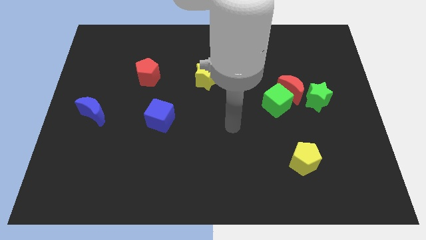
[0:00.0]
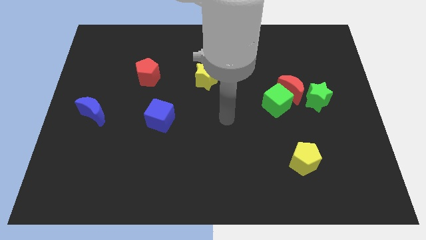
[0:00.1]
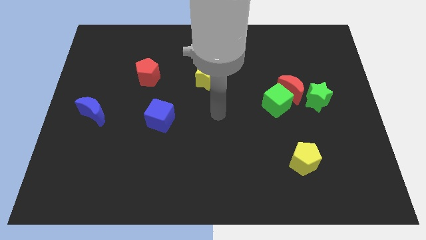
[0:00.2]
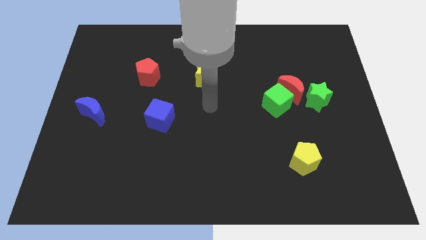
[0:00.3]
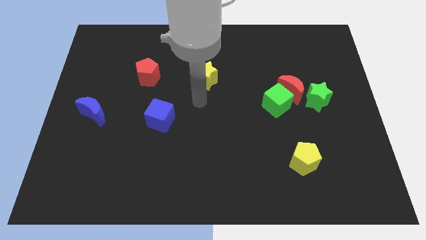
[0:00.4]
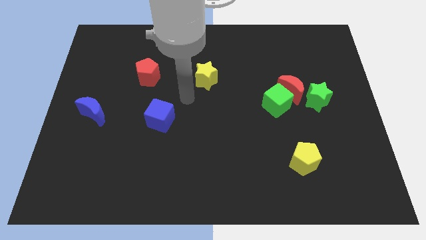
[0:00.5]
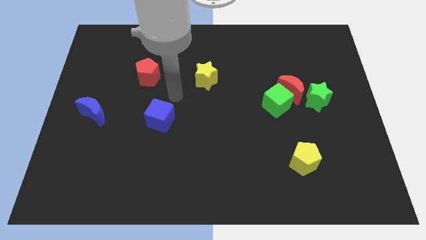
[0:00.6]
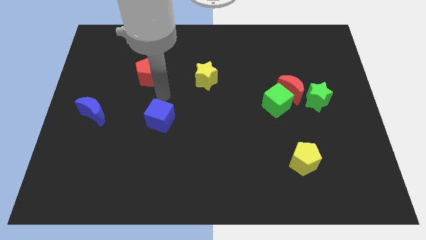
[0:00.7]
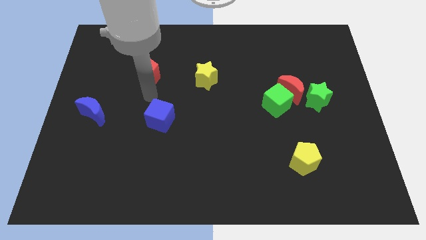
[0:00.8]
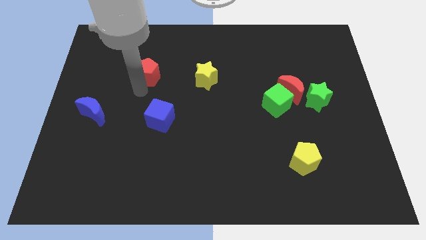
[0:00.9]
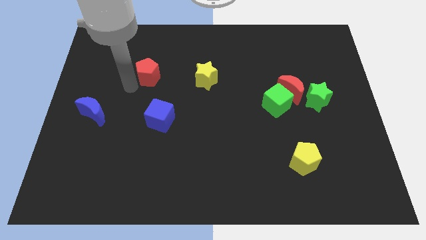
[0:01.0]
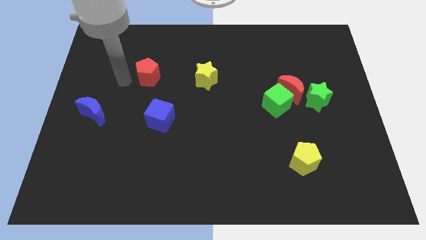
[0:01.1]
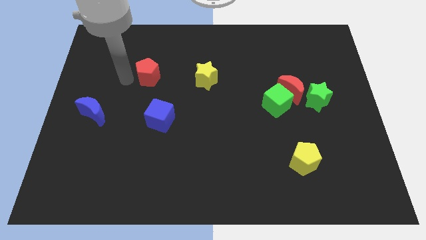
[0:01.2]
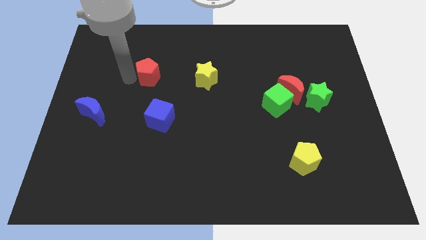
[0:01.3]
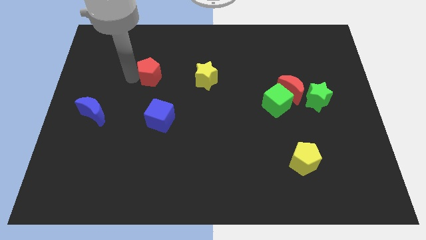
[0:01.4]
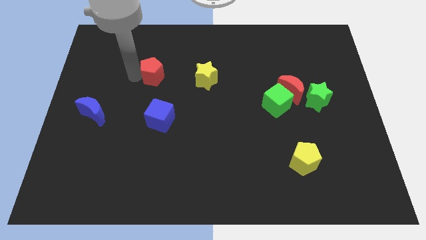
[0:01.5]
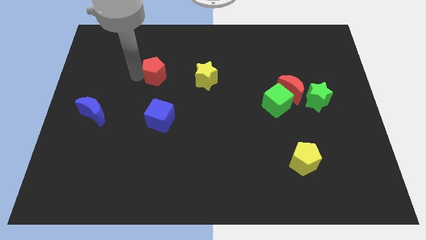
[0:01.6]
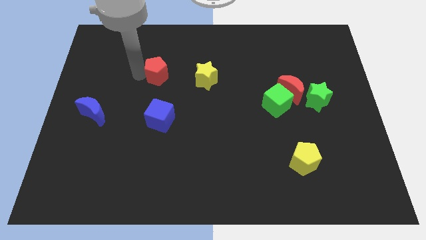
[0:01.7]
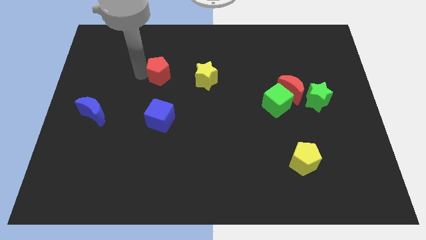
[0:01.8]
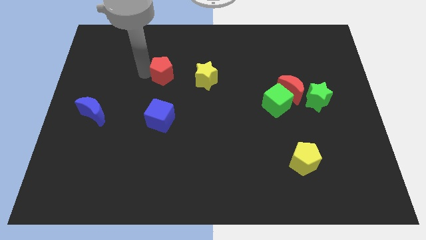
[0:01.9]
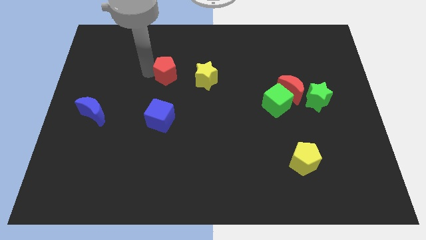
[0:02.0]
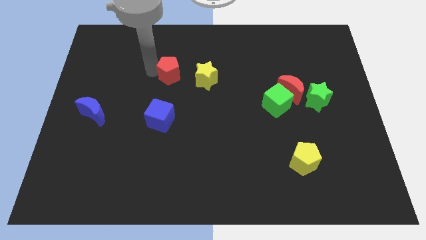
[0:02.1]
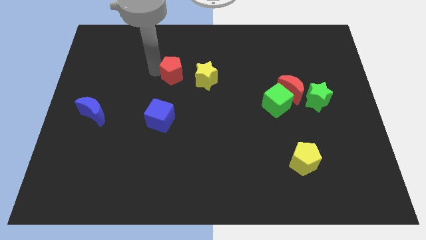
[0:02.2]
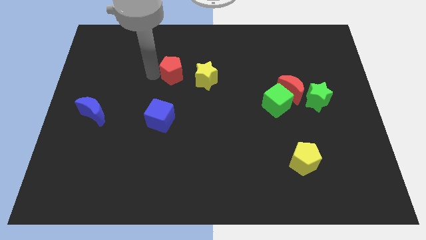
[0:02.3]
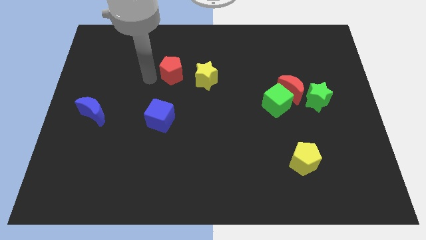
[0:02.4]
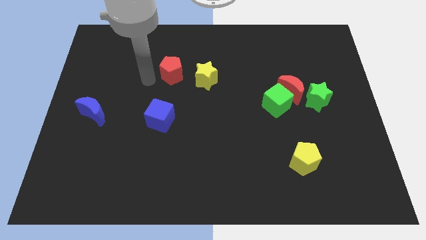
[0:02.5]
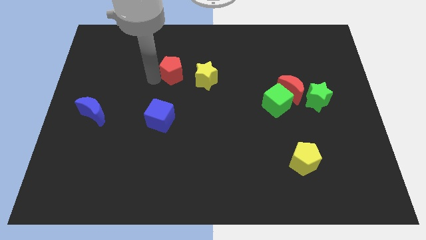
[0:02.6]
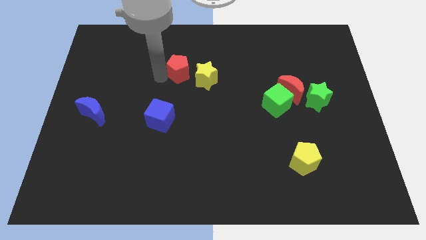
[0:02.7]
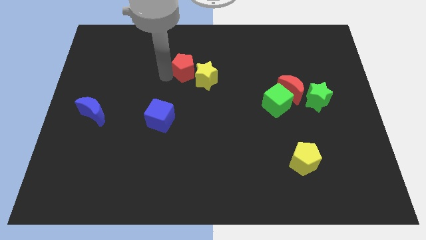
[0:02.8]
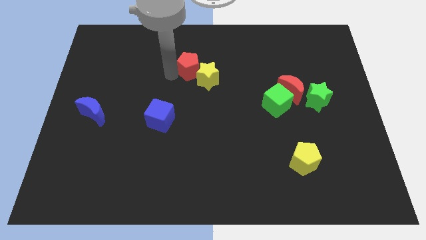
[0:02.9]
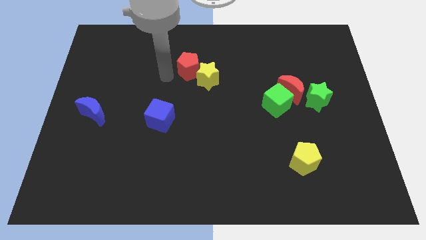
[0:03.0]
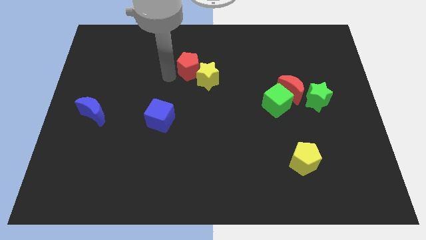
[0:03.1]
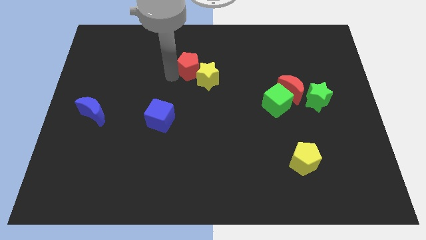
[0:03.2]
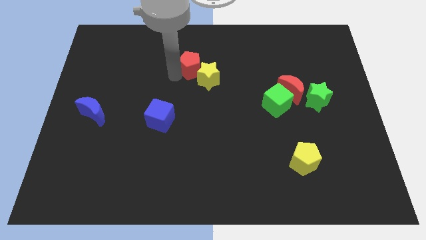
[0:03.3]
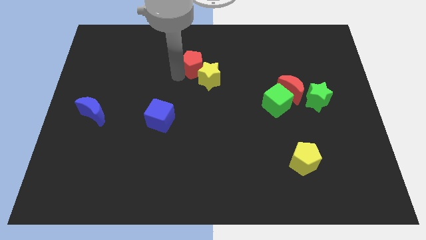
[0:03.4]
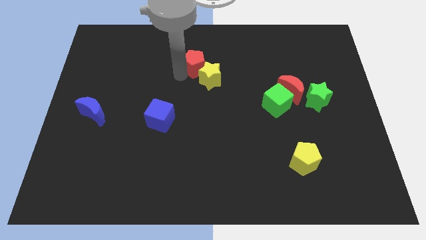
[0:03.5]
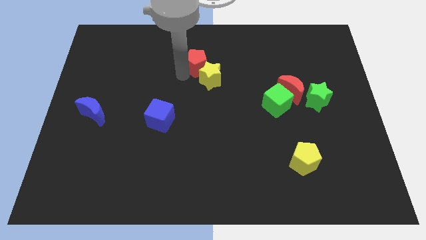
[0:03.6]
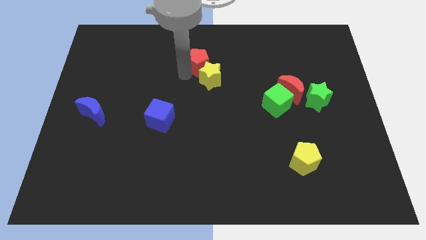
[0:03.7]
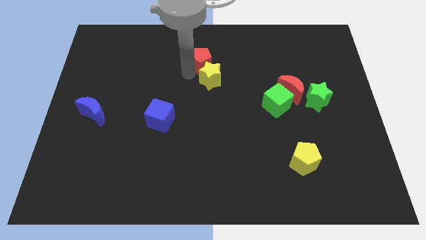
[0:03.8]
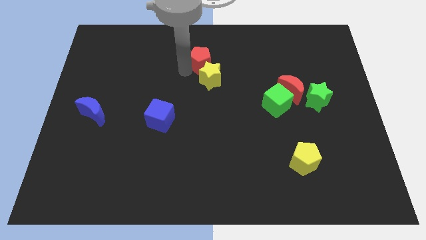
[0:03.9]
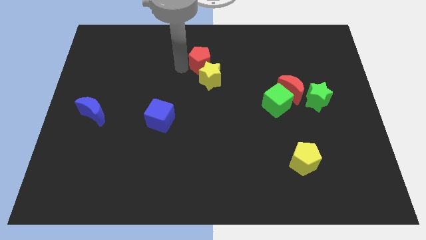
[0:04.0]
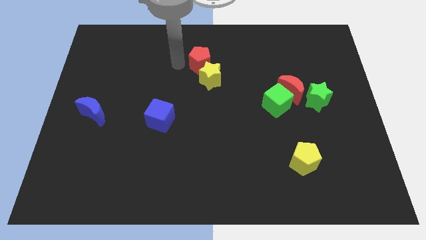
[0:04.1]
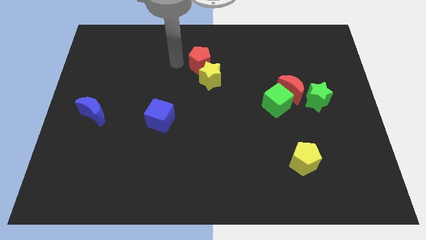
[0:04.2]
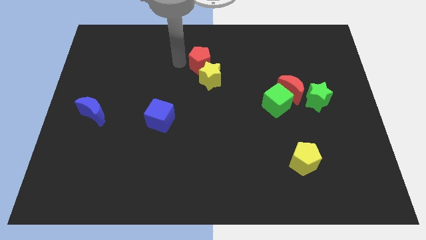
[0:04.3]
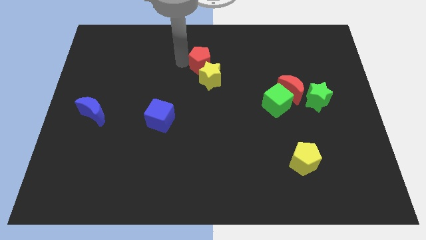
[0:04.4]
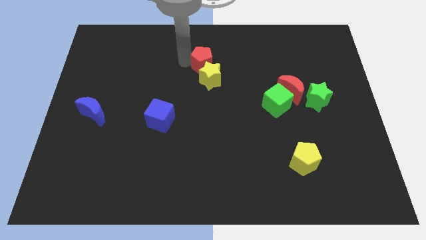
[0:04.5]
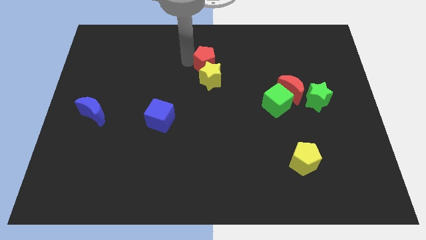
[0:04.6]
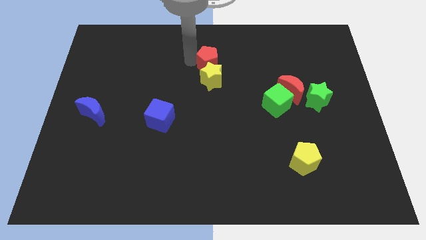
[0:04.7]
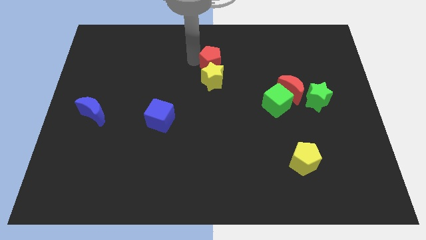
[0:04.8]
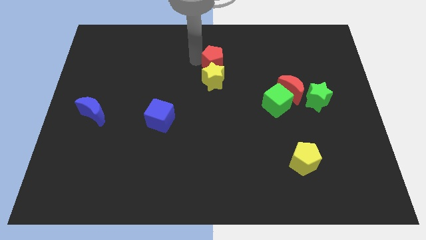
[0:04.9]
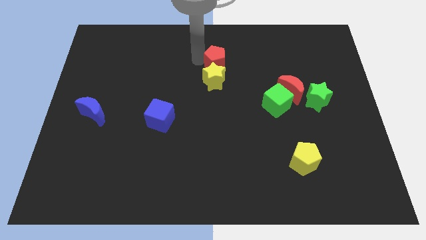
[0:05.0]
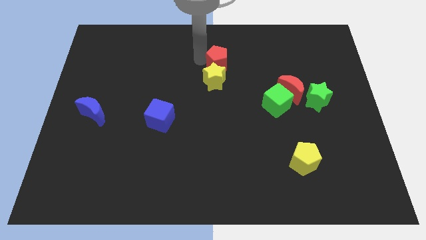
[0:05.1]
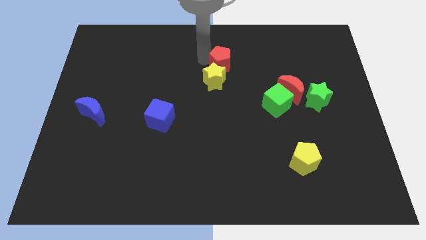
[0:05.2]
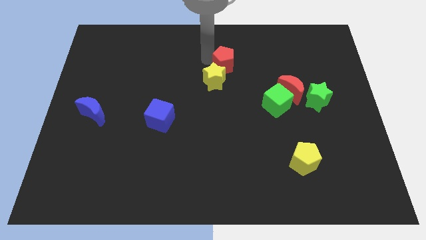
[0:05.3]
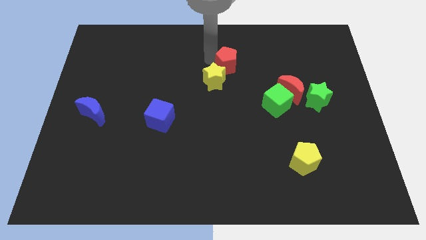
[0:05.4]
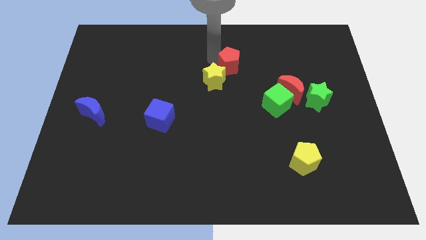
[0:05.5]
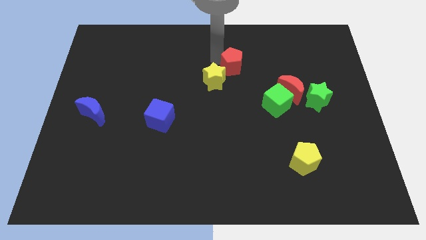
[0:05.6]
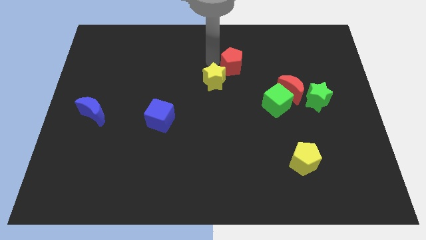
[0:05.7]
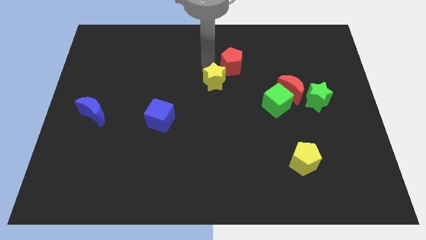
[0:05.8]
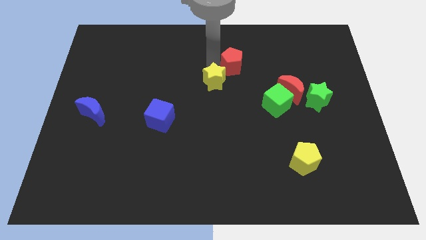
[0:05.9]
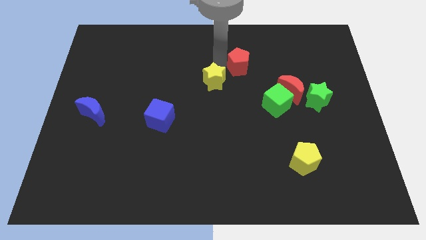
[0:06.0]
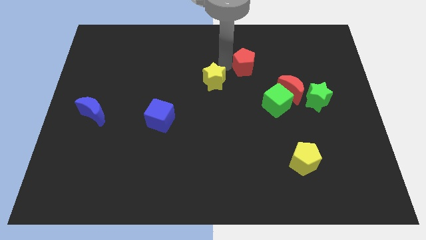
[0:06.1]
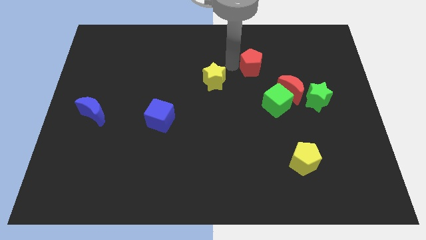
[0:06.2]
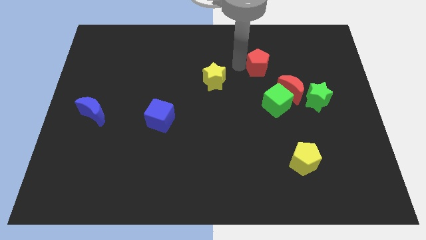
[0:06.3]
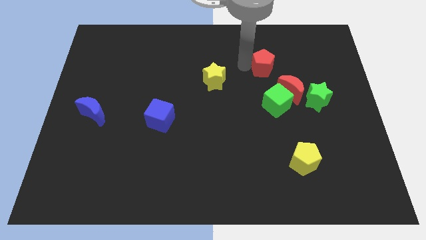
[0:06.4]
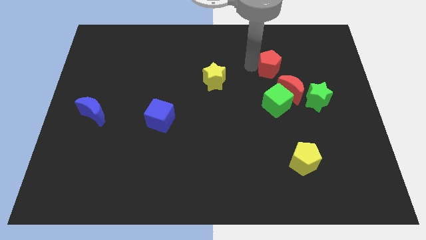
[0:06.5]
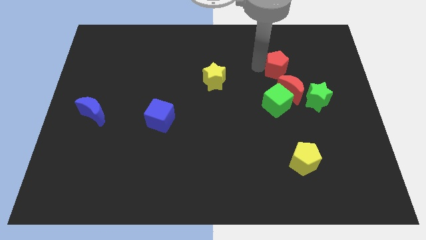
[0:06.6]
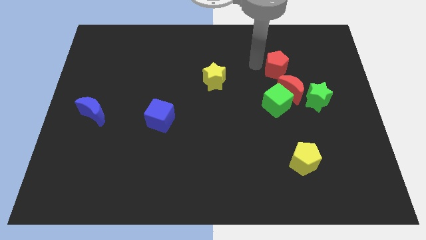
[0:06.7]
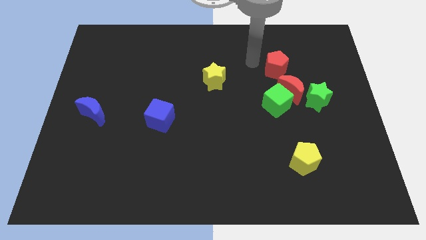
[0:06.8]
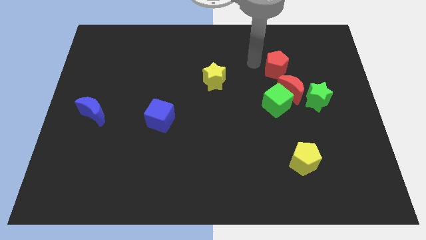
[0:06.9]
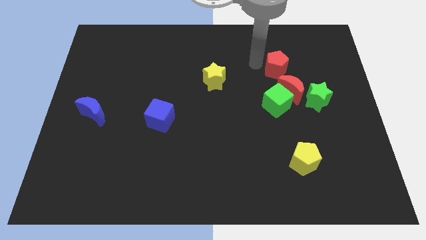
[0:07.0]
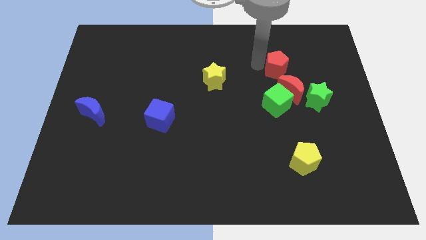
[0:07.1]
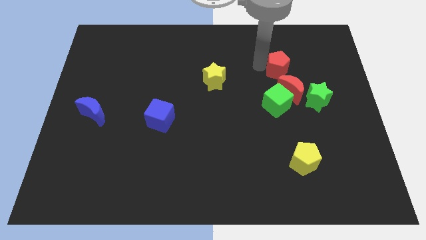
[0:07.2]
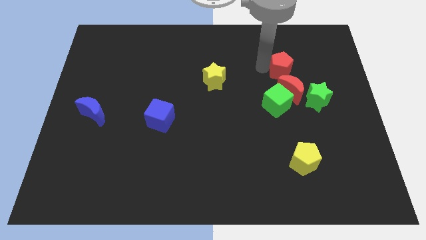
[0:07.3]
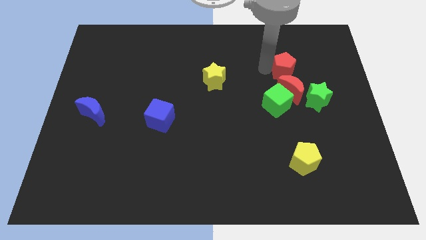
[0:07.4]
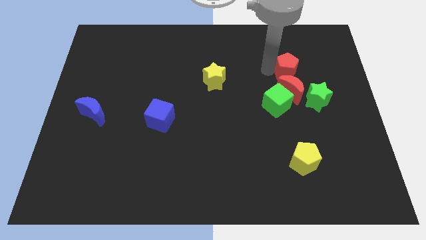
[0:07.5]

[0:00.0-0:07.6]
move the red pentagon to the top right side of the red moon

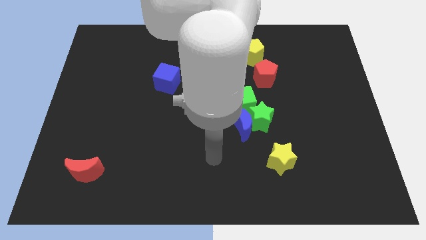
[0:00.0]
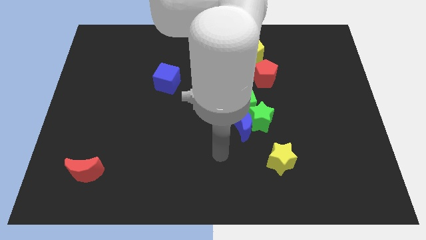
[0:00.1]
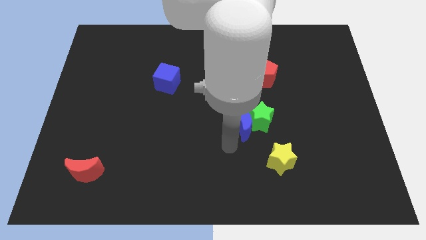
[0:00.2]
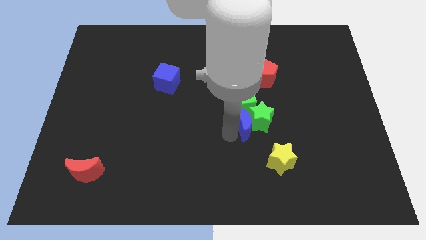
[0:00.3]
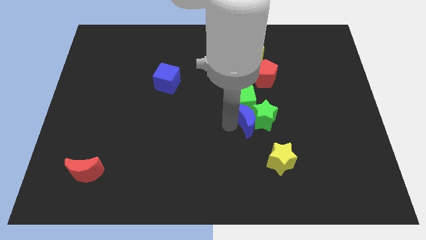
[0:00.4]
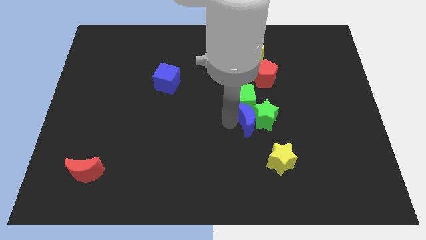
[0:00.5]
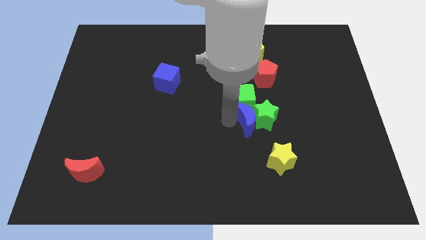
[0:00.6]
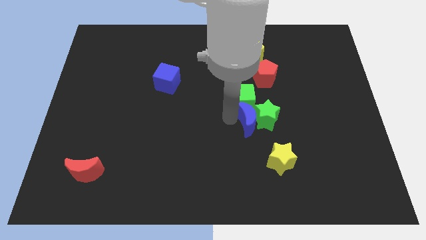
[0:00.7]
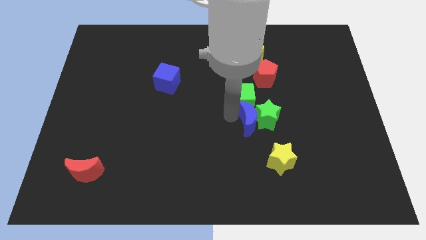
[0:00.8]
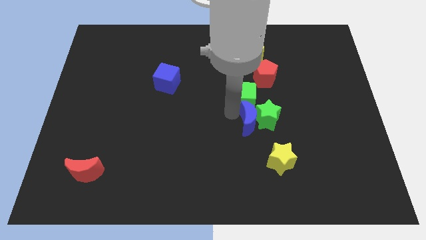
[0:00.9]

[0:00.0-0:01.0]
move the green cube to the bottom of the yellow pentagon

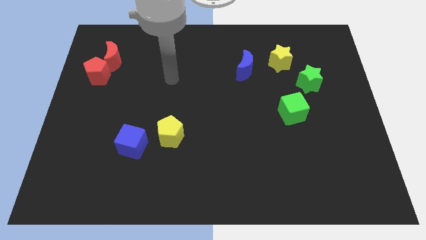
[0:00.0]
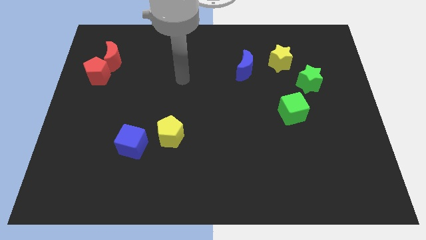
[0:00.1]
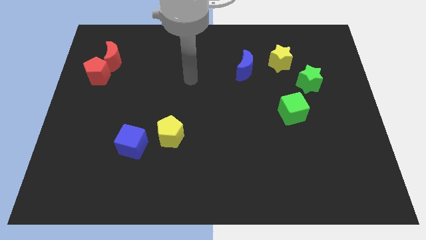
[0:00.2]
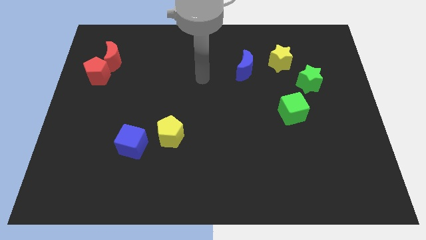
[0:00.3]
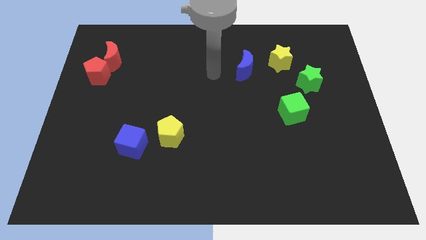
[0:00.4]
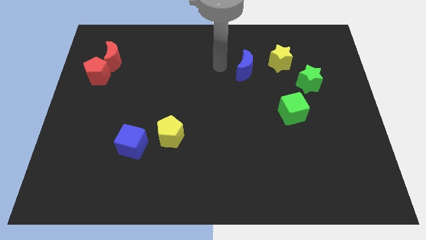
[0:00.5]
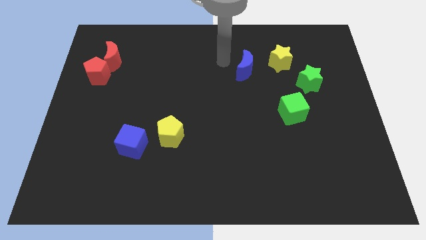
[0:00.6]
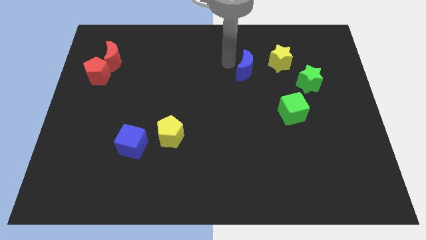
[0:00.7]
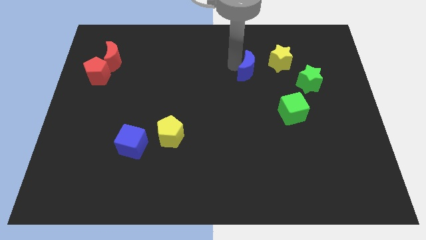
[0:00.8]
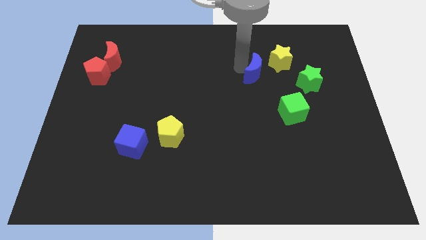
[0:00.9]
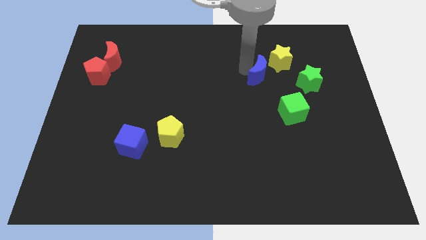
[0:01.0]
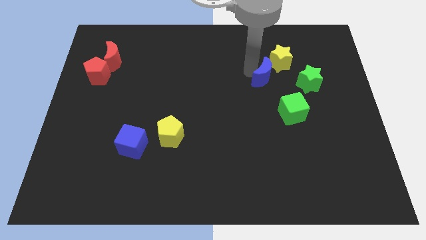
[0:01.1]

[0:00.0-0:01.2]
slide the blue moon to the bottom side of the yellow star
